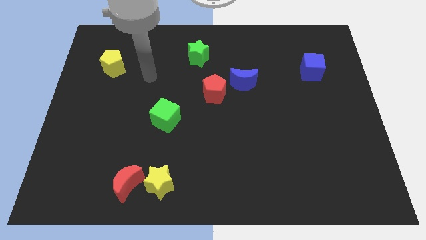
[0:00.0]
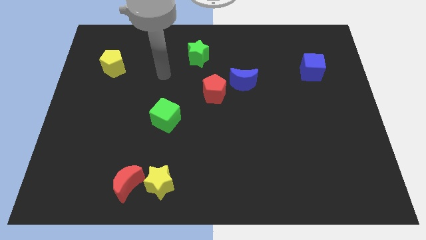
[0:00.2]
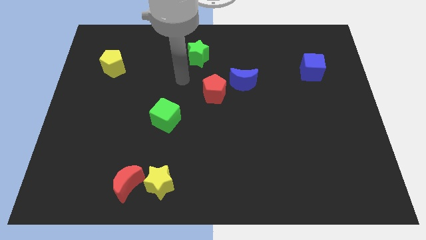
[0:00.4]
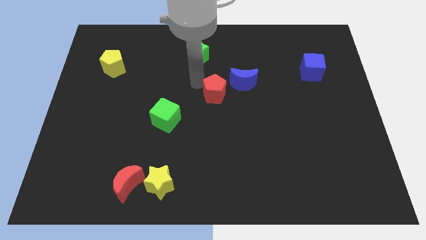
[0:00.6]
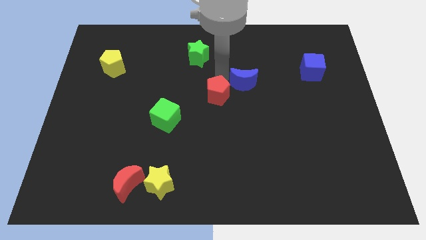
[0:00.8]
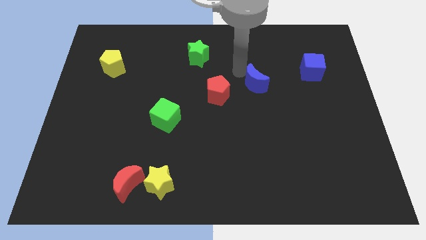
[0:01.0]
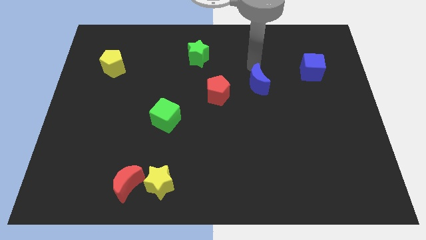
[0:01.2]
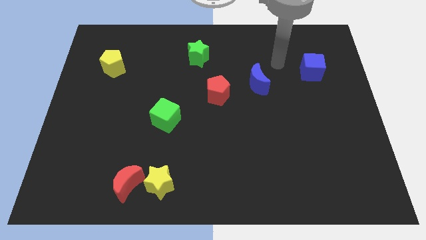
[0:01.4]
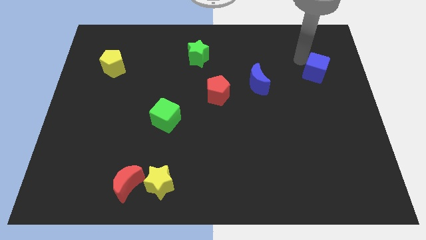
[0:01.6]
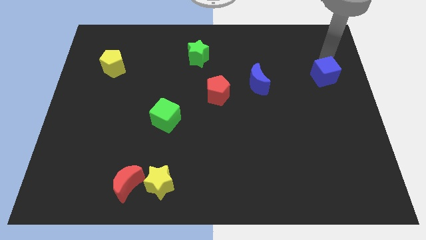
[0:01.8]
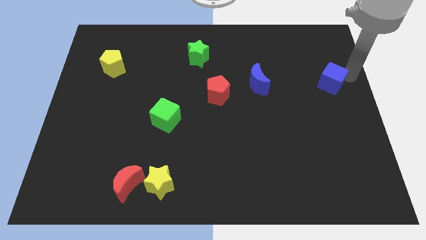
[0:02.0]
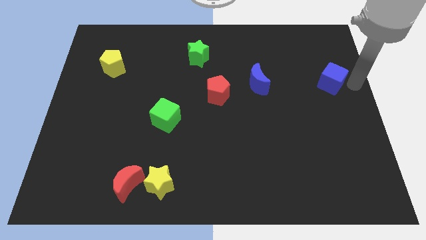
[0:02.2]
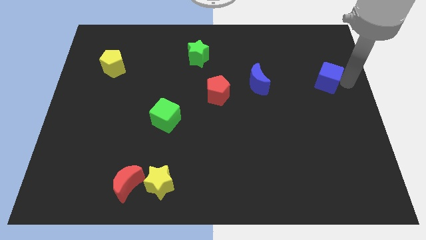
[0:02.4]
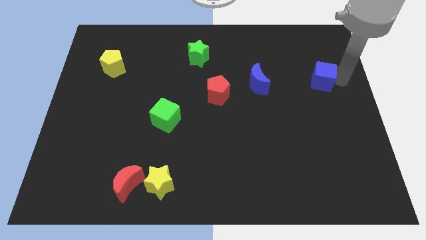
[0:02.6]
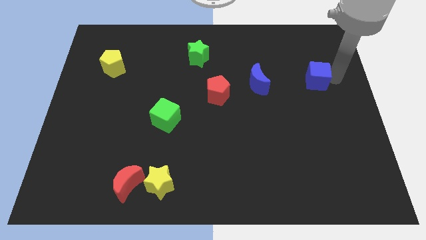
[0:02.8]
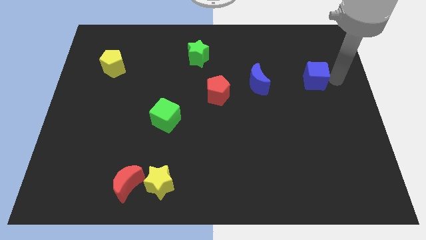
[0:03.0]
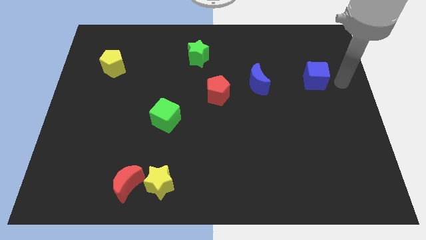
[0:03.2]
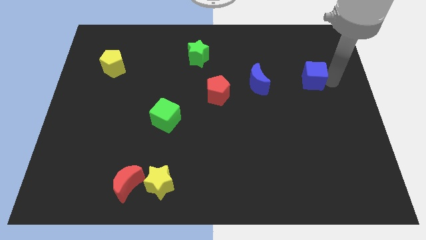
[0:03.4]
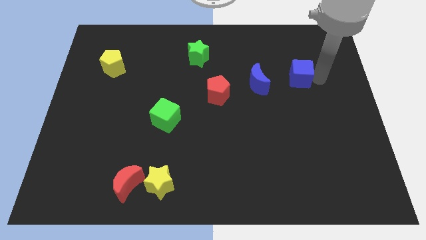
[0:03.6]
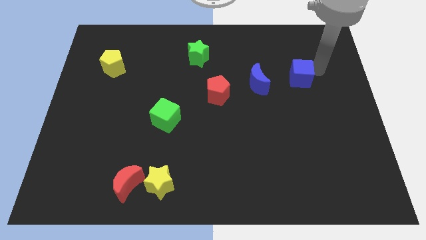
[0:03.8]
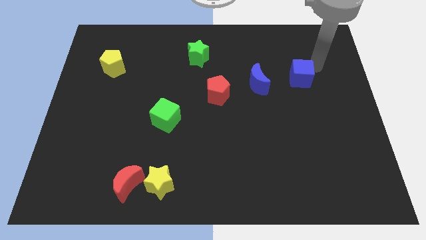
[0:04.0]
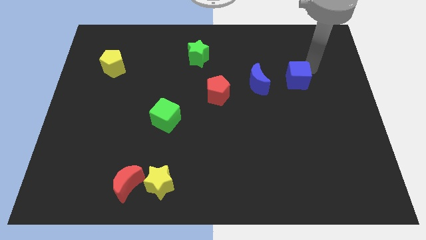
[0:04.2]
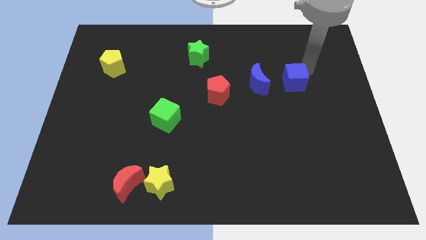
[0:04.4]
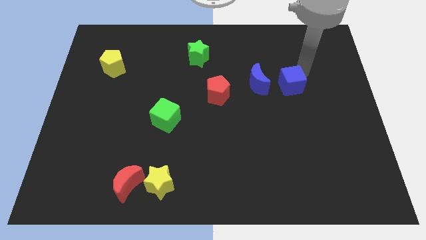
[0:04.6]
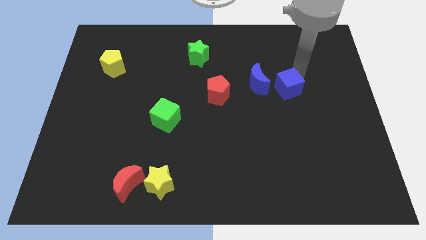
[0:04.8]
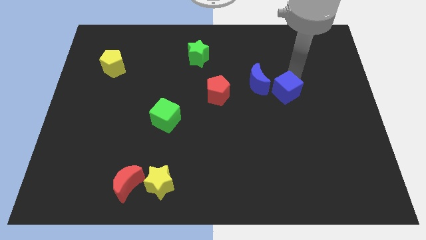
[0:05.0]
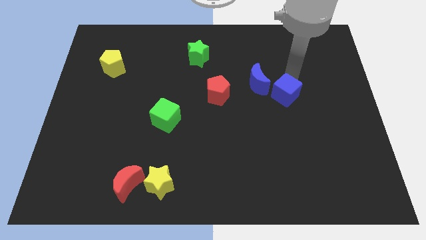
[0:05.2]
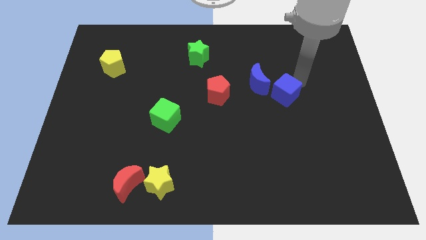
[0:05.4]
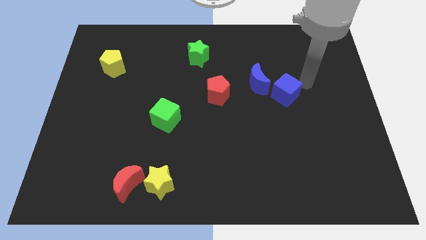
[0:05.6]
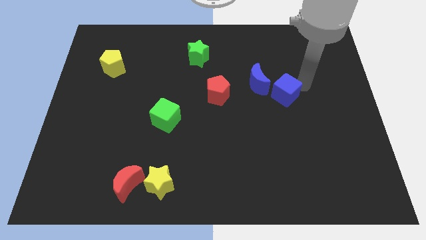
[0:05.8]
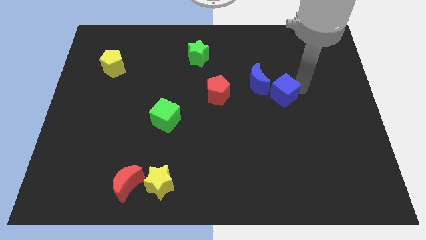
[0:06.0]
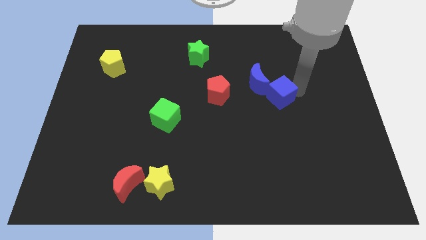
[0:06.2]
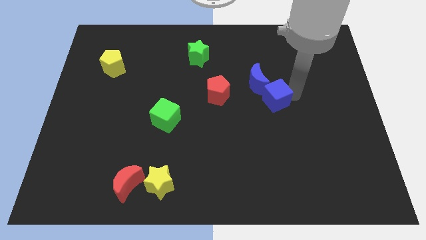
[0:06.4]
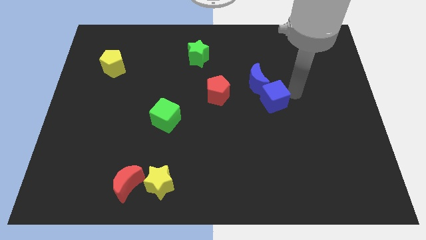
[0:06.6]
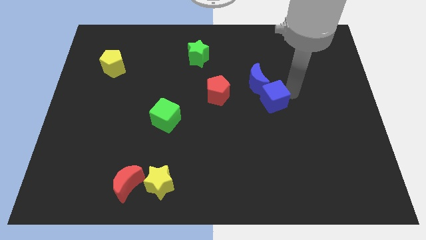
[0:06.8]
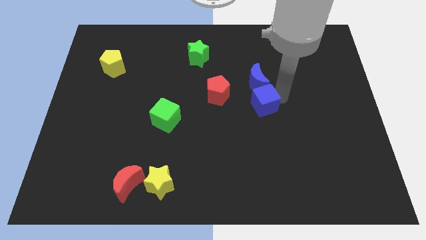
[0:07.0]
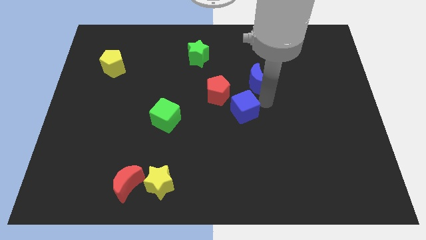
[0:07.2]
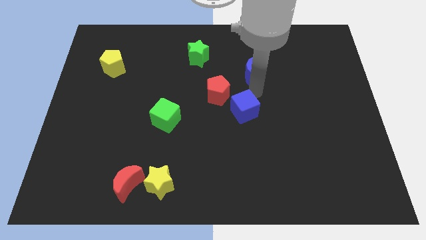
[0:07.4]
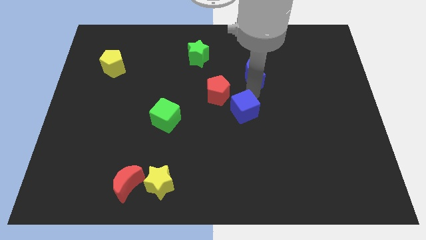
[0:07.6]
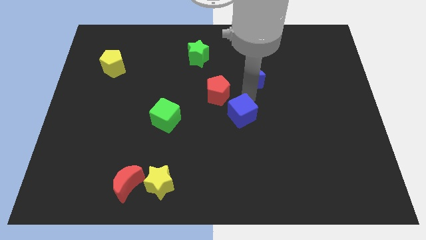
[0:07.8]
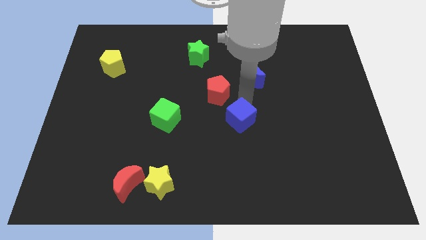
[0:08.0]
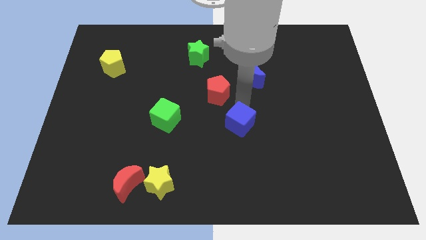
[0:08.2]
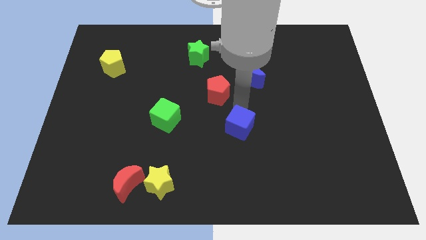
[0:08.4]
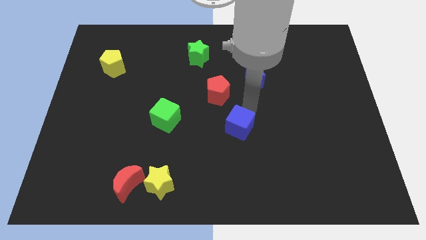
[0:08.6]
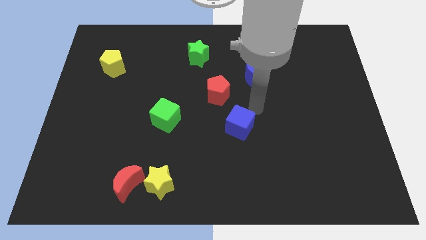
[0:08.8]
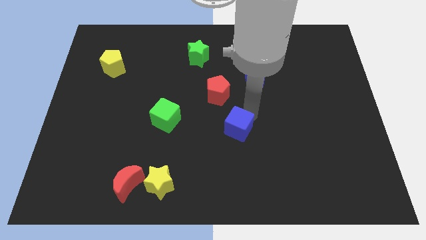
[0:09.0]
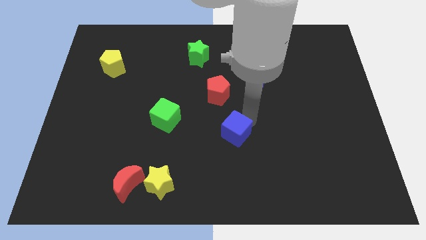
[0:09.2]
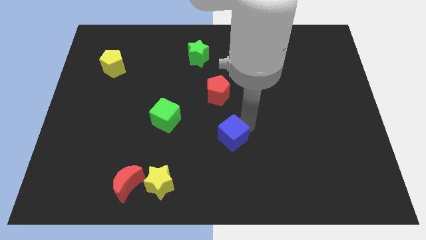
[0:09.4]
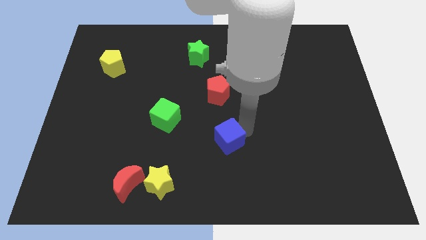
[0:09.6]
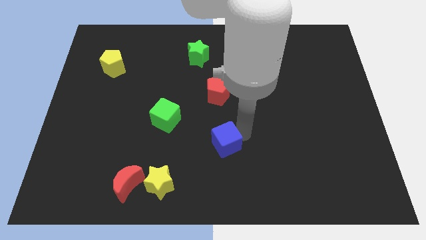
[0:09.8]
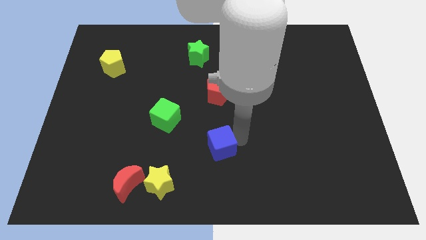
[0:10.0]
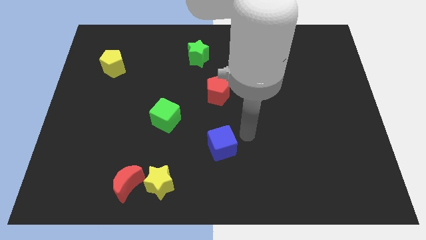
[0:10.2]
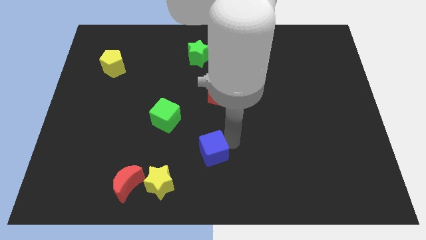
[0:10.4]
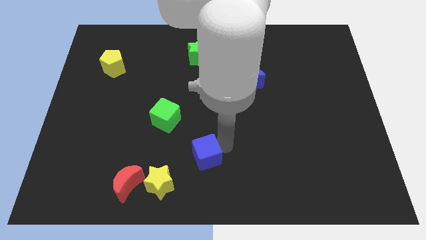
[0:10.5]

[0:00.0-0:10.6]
put the blue cube diagonally up and to the right of the yellow star

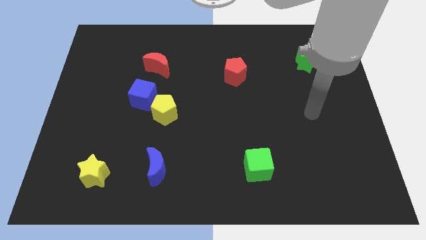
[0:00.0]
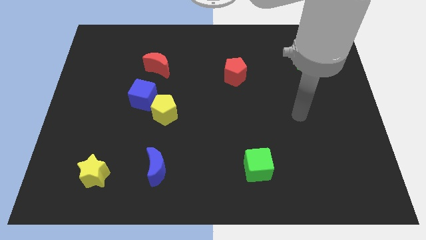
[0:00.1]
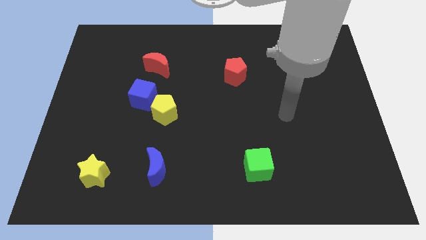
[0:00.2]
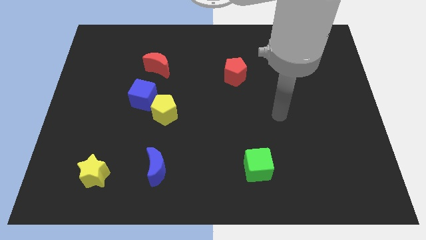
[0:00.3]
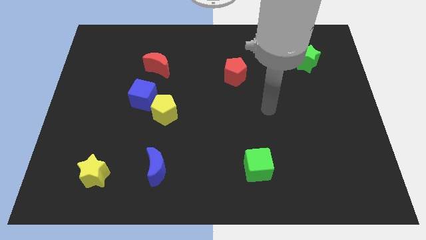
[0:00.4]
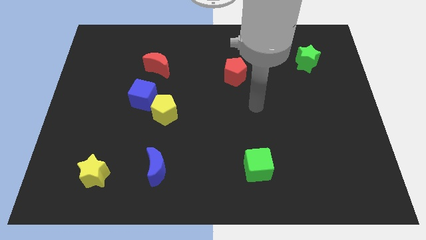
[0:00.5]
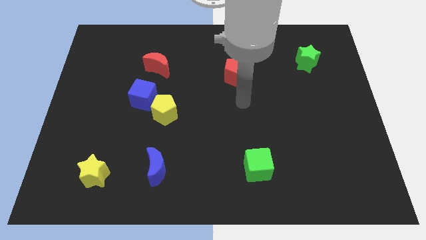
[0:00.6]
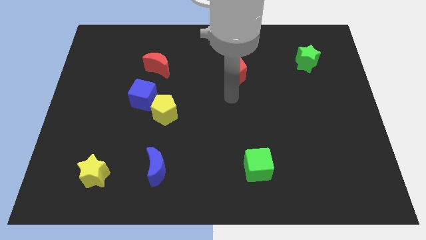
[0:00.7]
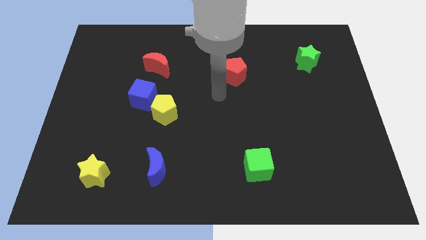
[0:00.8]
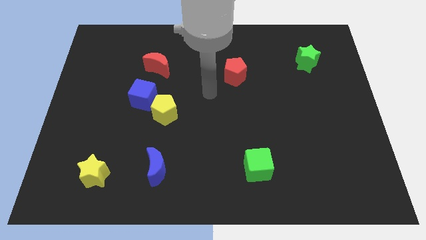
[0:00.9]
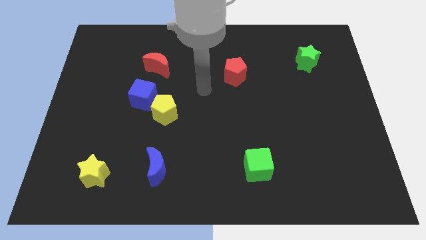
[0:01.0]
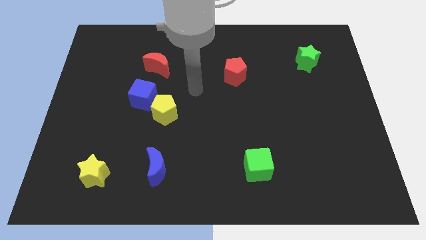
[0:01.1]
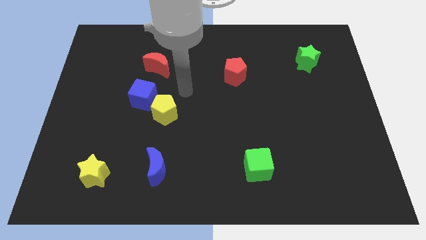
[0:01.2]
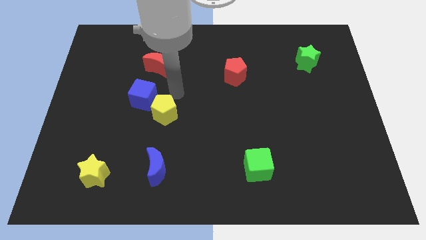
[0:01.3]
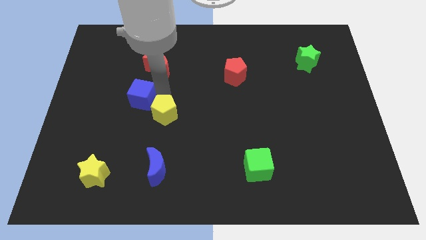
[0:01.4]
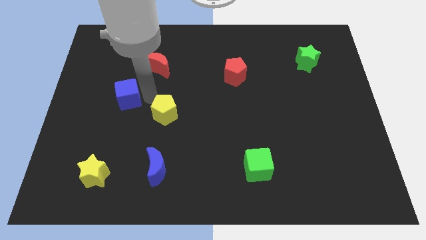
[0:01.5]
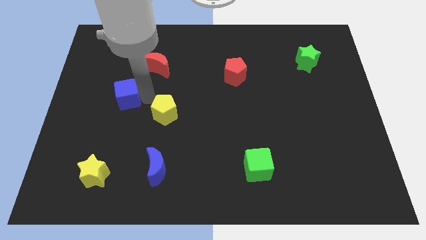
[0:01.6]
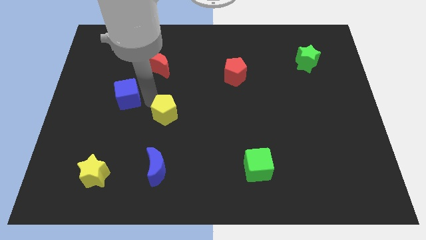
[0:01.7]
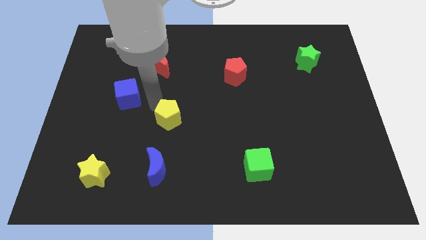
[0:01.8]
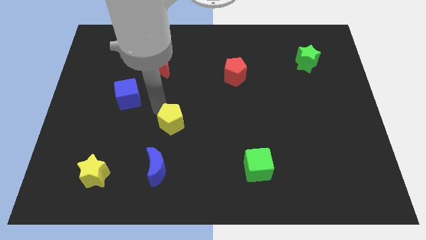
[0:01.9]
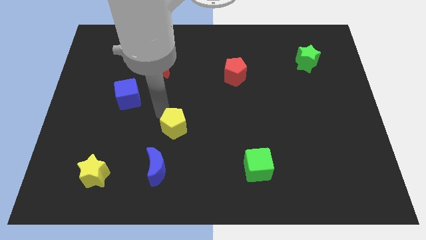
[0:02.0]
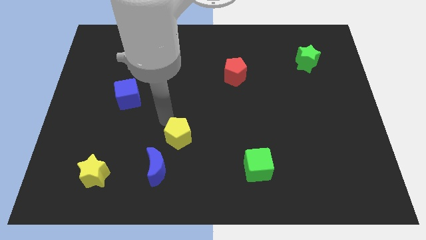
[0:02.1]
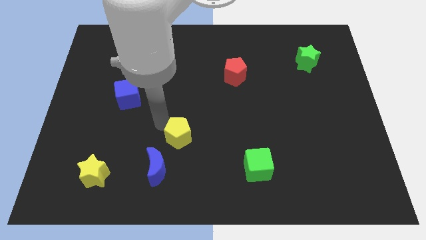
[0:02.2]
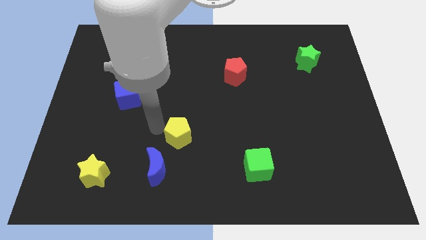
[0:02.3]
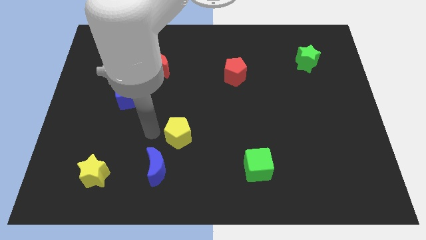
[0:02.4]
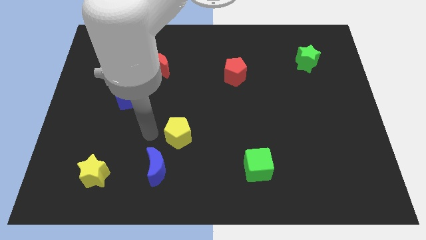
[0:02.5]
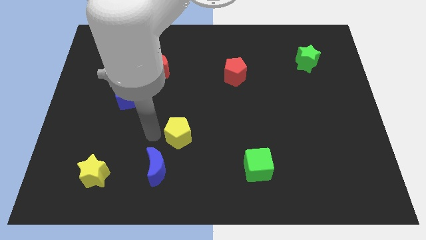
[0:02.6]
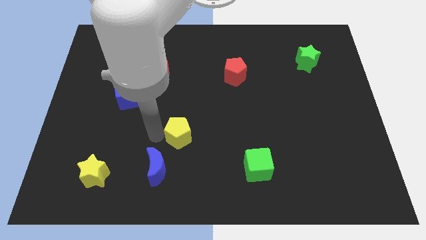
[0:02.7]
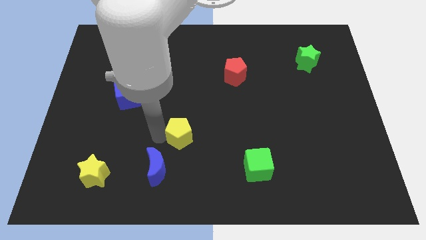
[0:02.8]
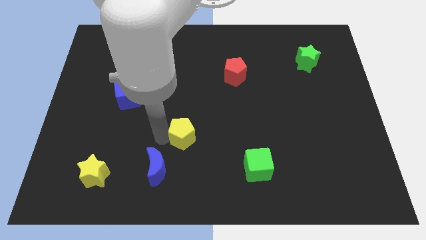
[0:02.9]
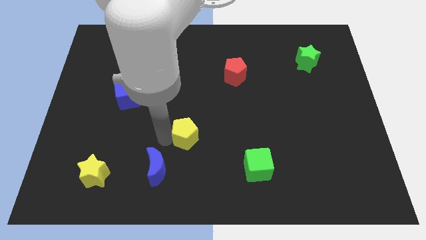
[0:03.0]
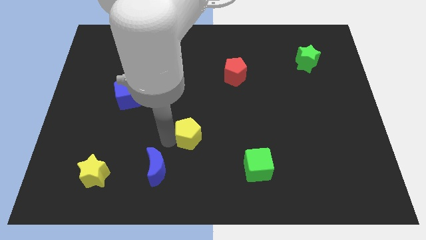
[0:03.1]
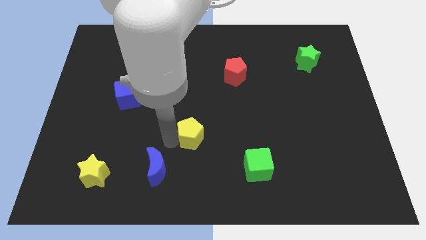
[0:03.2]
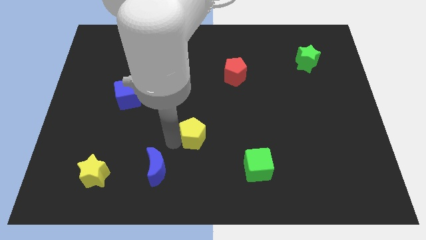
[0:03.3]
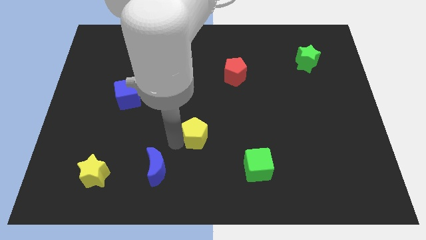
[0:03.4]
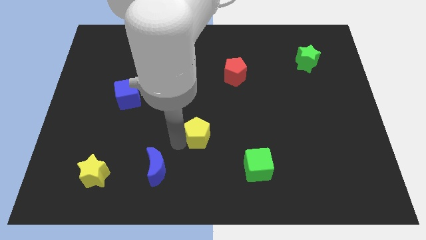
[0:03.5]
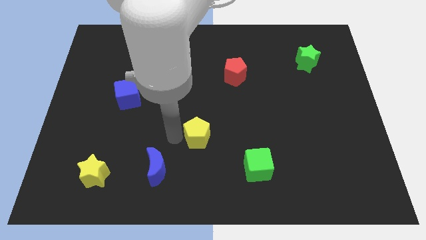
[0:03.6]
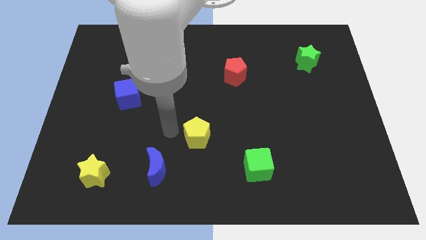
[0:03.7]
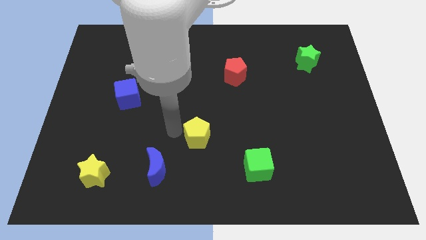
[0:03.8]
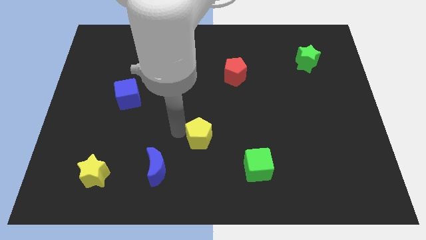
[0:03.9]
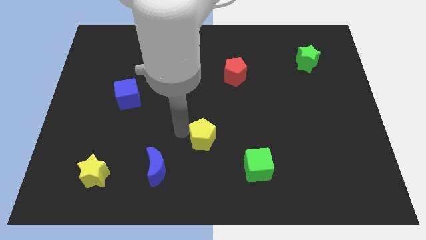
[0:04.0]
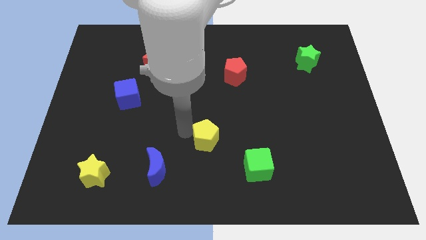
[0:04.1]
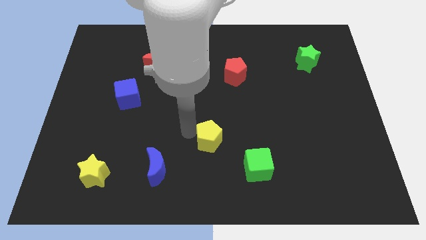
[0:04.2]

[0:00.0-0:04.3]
move the yellow pentagon diagonally up and to the left of the green cube
